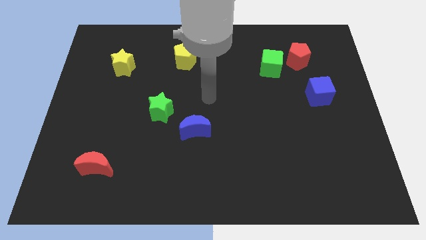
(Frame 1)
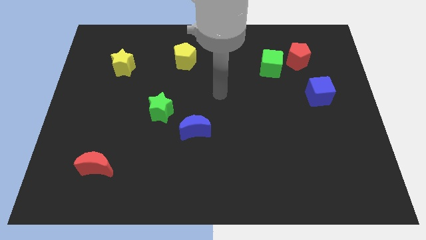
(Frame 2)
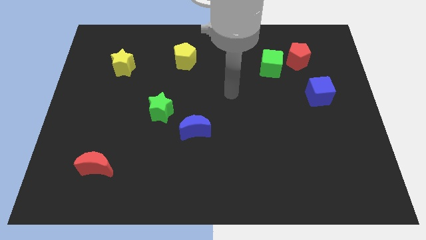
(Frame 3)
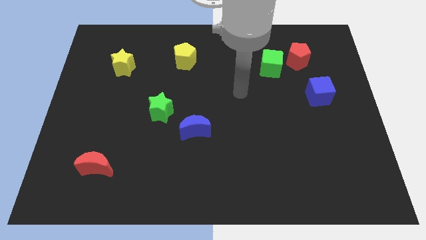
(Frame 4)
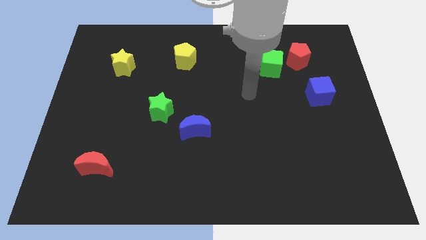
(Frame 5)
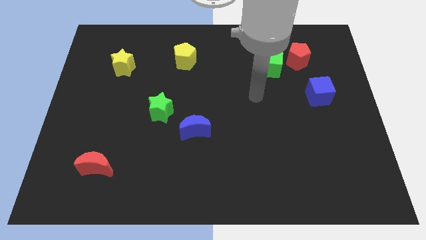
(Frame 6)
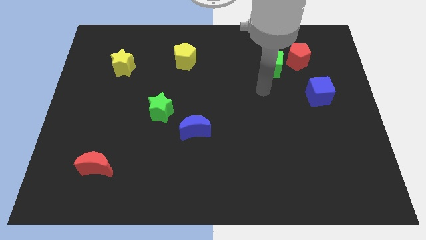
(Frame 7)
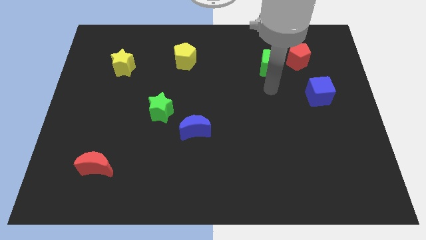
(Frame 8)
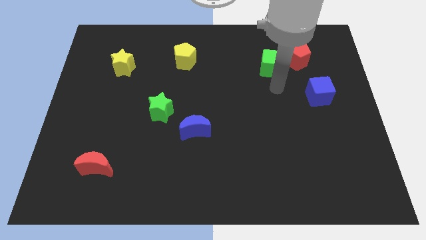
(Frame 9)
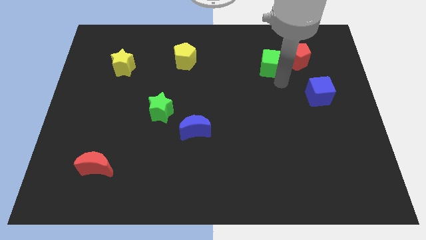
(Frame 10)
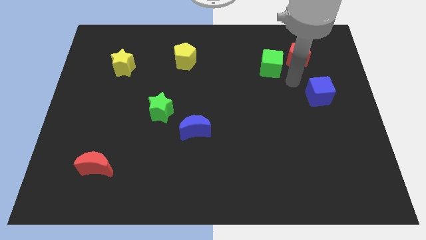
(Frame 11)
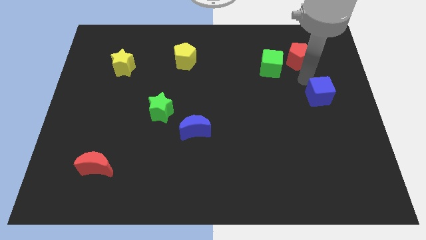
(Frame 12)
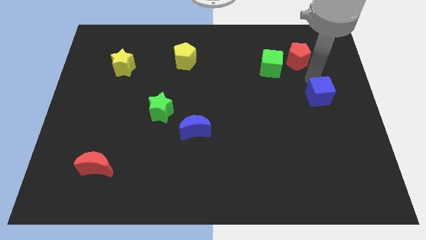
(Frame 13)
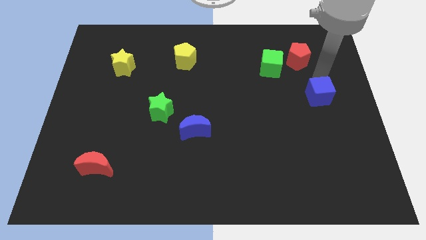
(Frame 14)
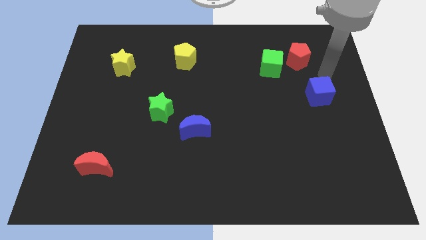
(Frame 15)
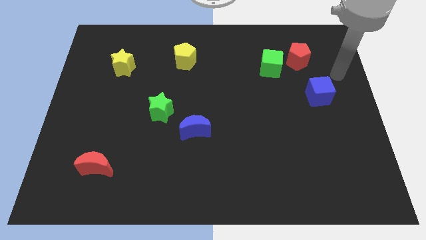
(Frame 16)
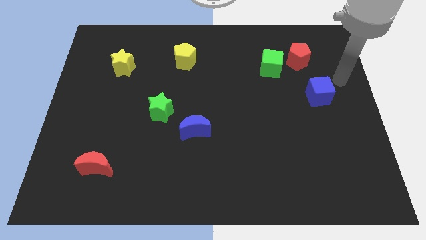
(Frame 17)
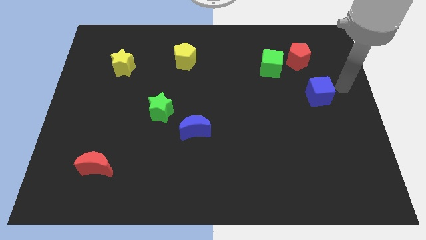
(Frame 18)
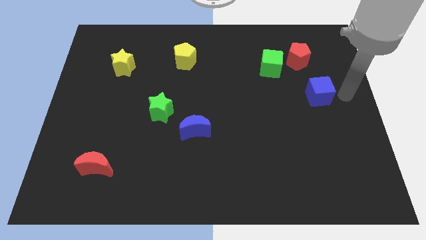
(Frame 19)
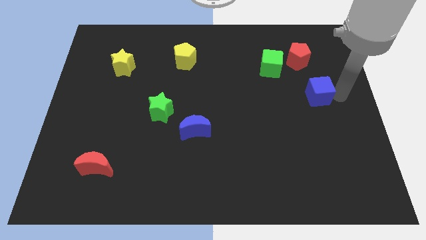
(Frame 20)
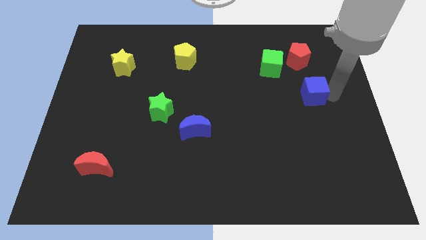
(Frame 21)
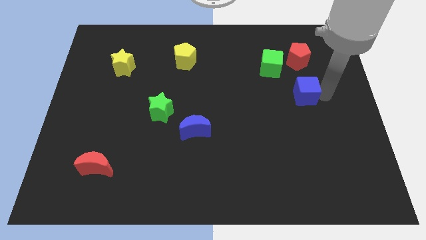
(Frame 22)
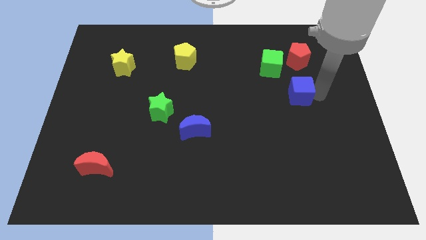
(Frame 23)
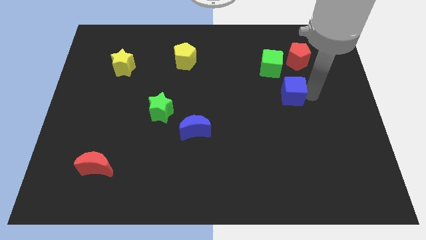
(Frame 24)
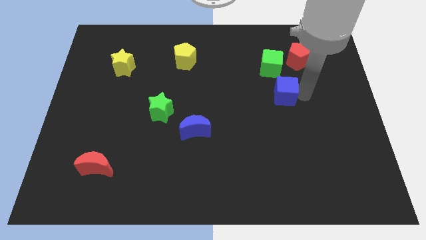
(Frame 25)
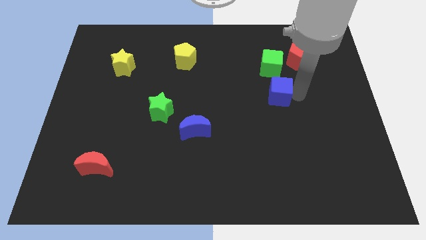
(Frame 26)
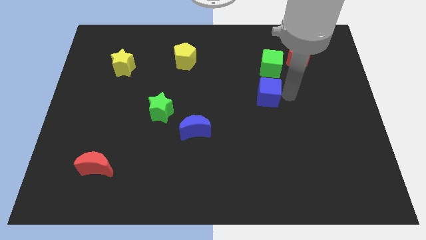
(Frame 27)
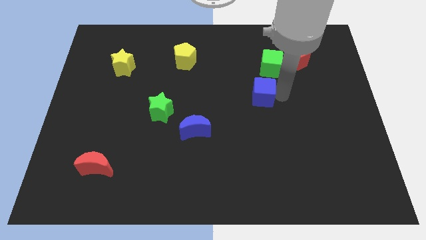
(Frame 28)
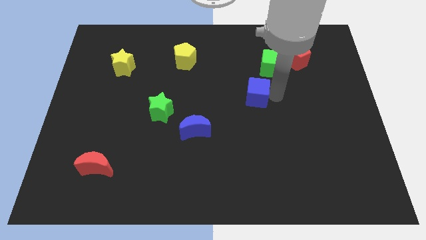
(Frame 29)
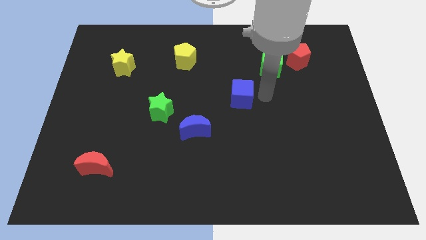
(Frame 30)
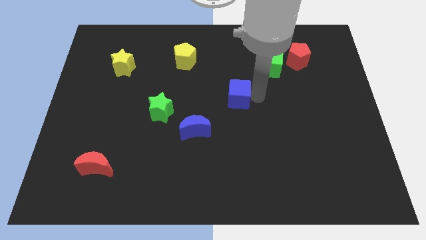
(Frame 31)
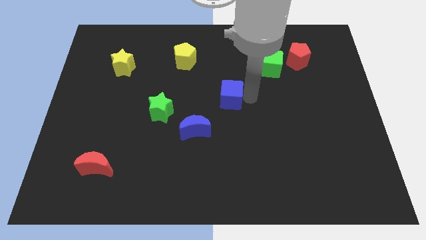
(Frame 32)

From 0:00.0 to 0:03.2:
move the blue cube left

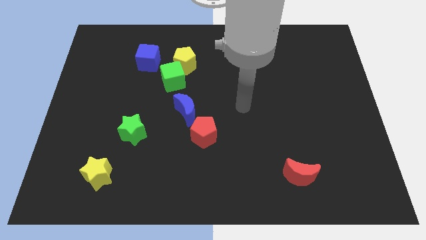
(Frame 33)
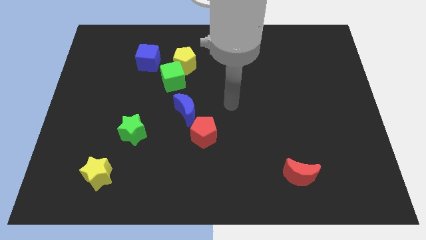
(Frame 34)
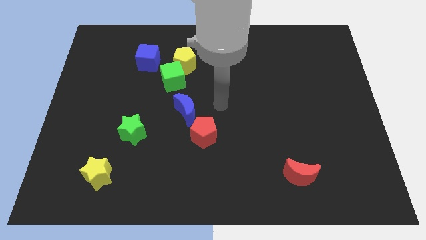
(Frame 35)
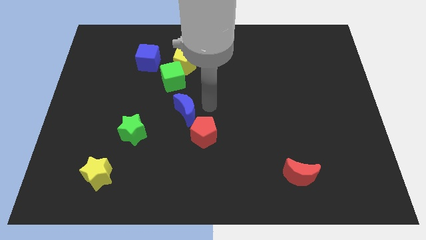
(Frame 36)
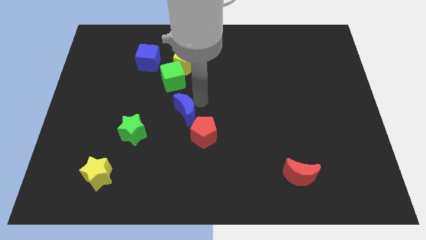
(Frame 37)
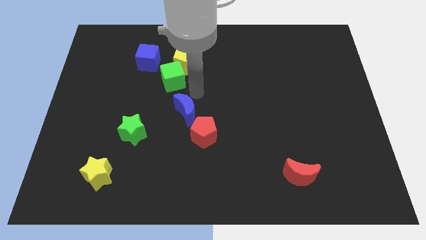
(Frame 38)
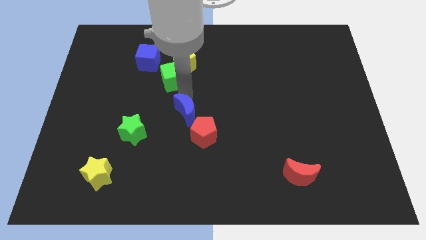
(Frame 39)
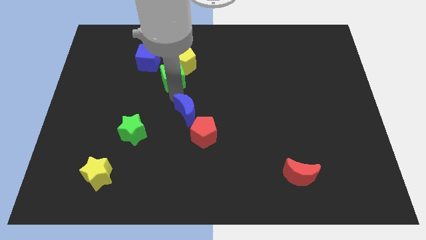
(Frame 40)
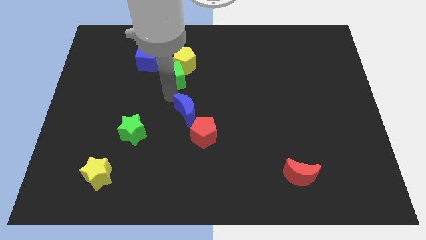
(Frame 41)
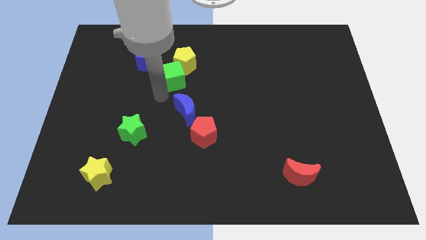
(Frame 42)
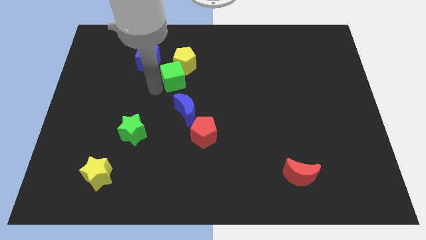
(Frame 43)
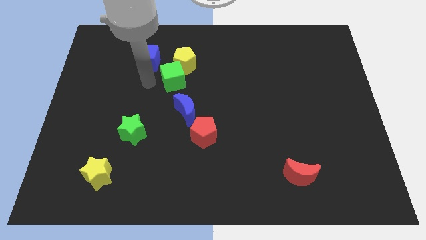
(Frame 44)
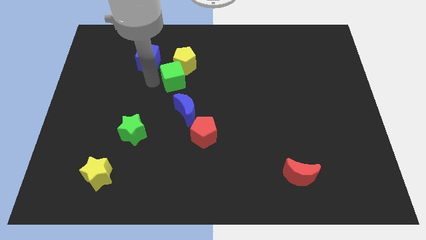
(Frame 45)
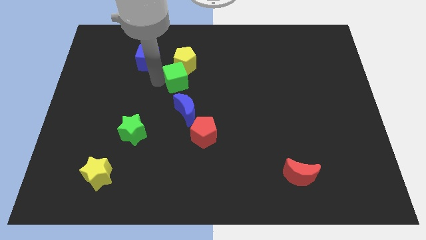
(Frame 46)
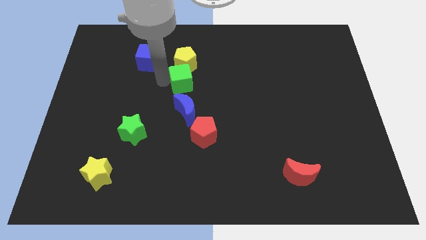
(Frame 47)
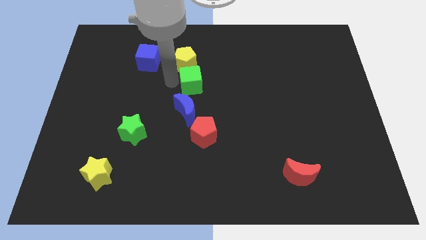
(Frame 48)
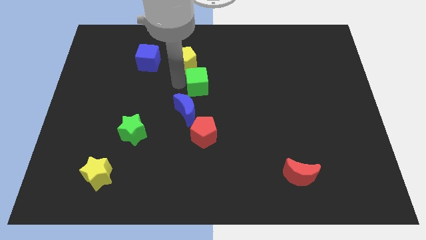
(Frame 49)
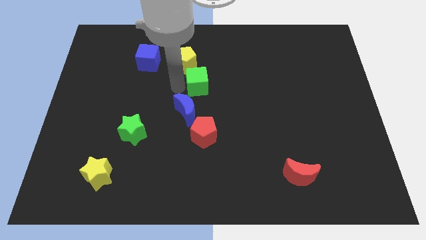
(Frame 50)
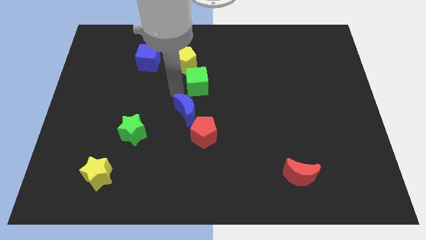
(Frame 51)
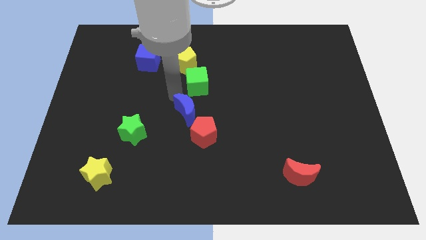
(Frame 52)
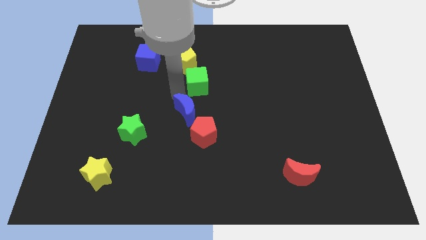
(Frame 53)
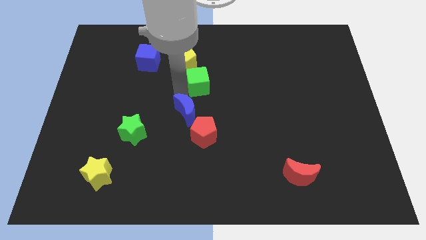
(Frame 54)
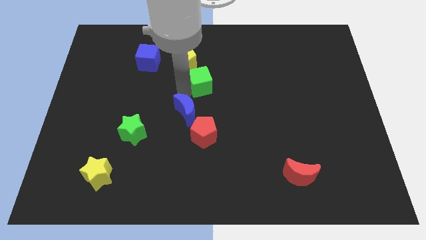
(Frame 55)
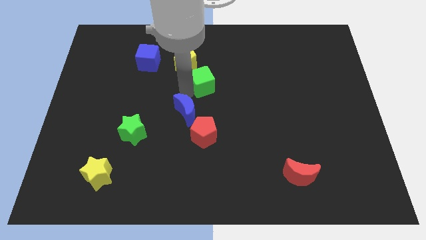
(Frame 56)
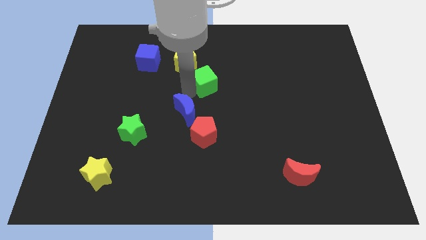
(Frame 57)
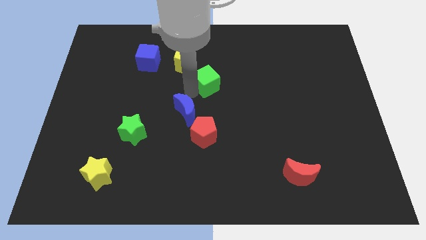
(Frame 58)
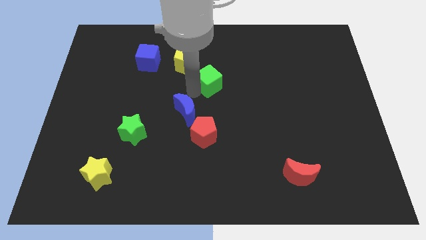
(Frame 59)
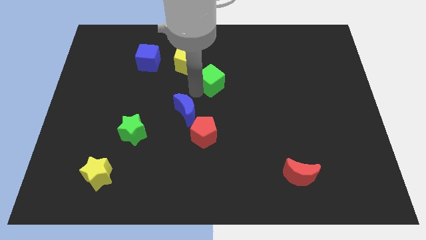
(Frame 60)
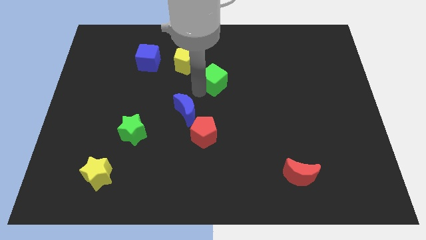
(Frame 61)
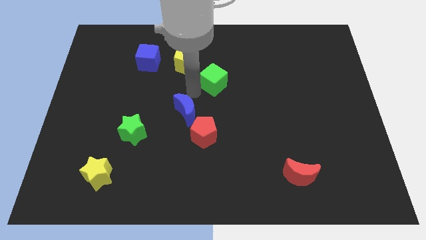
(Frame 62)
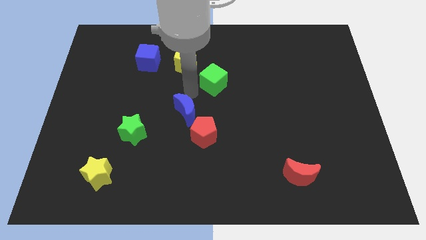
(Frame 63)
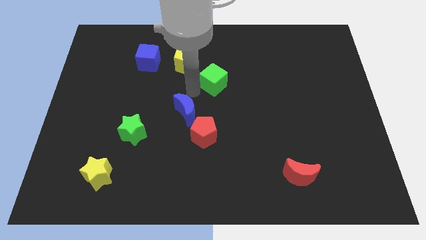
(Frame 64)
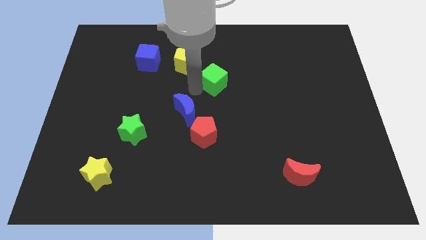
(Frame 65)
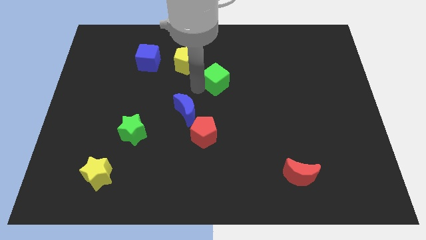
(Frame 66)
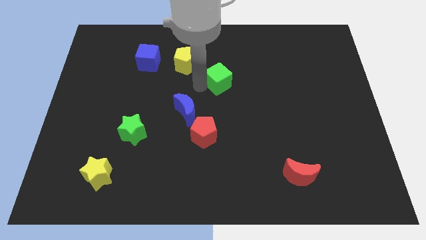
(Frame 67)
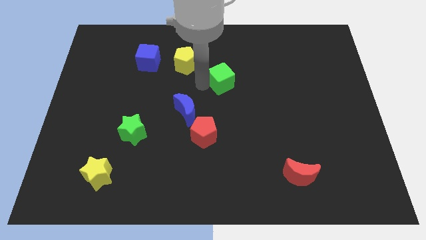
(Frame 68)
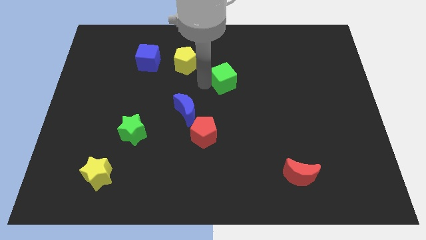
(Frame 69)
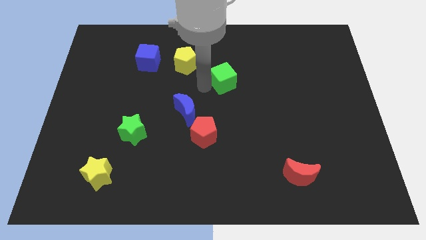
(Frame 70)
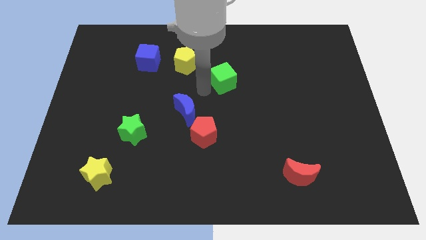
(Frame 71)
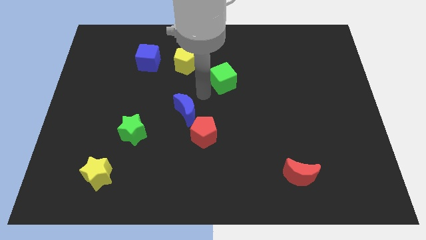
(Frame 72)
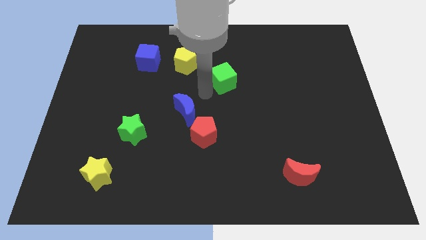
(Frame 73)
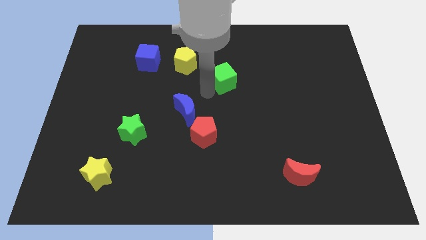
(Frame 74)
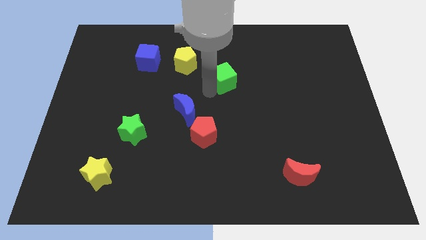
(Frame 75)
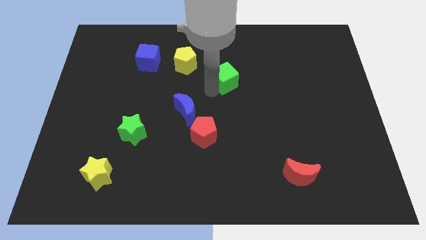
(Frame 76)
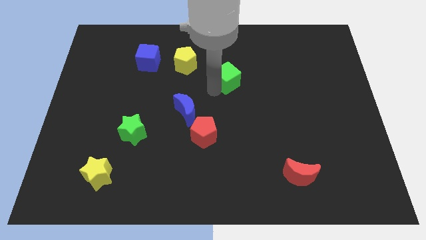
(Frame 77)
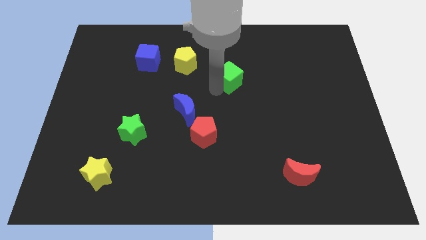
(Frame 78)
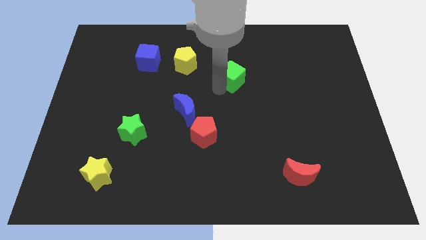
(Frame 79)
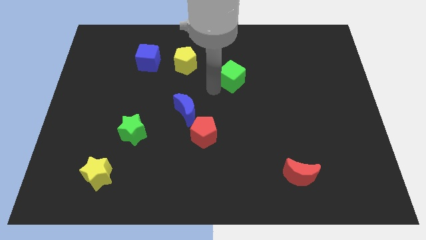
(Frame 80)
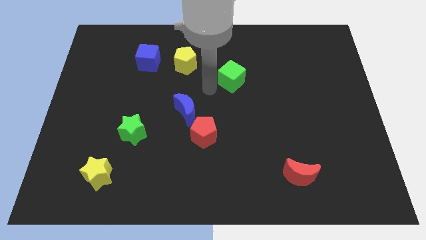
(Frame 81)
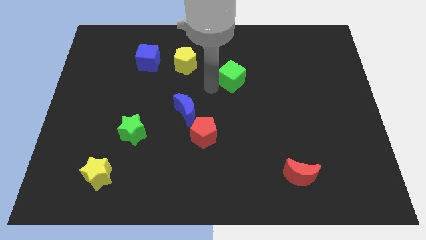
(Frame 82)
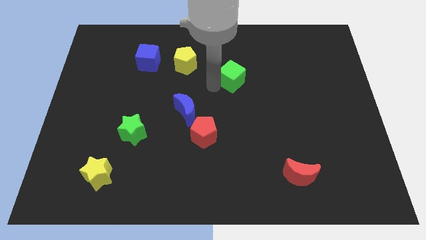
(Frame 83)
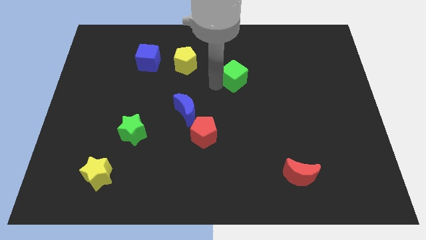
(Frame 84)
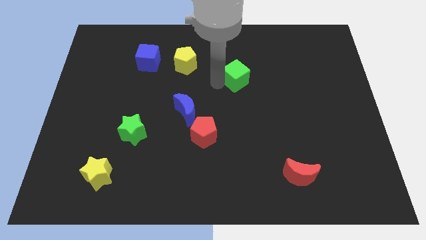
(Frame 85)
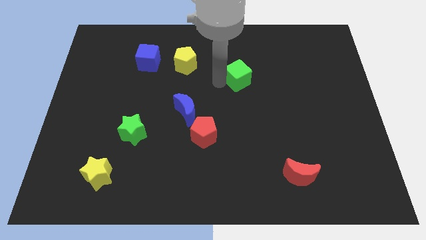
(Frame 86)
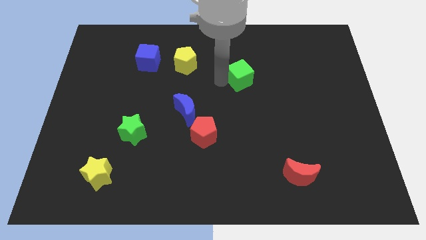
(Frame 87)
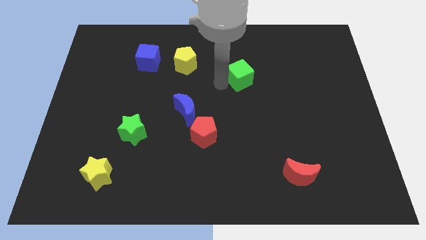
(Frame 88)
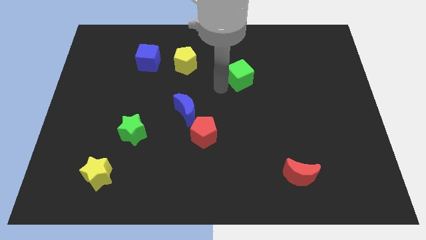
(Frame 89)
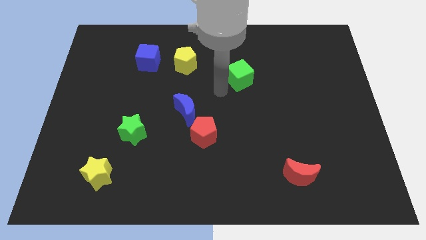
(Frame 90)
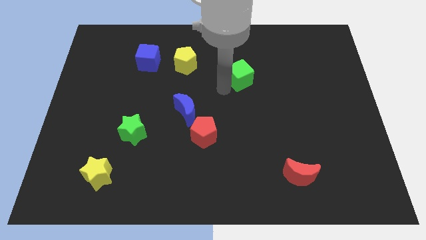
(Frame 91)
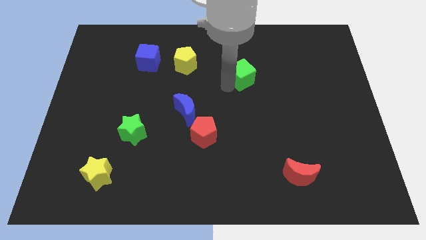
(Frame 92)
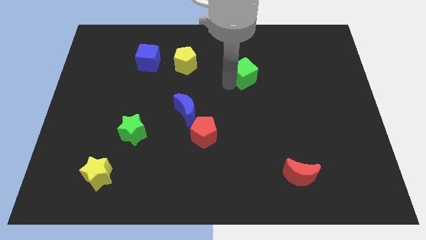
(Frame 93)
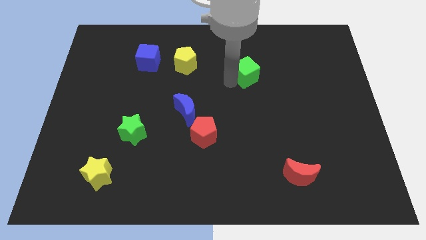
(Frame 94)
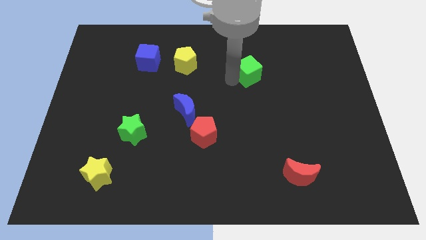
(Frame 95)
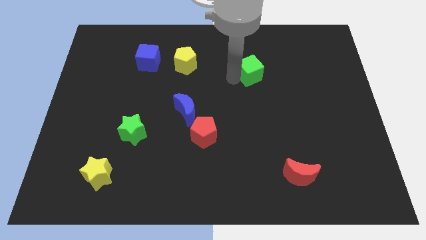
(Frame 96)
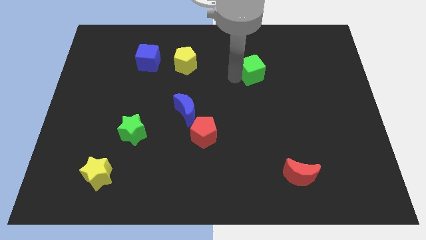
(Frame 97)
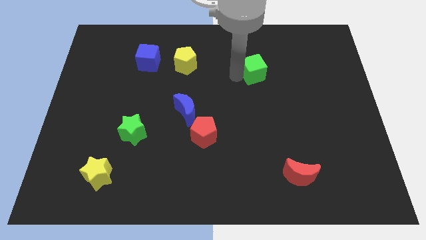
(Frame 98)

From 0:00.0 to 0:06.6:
push the green cube to the right
